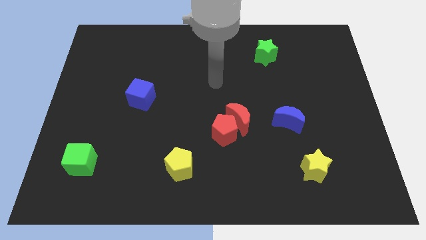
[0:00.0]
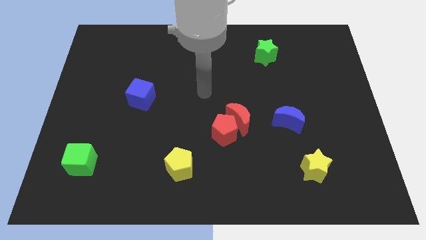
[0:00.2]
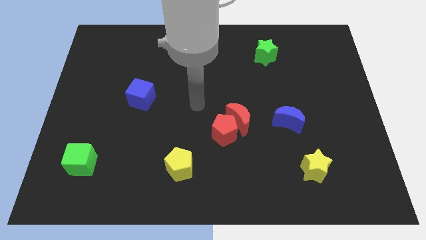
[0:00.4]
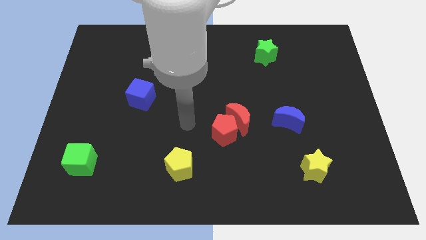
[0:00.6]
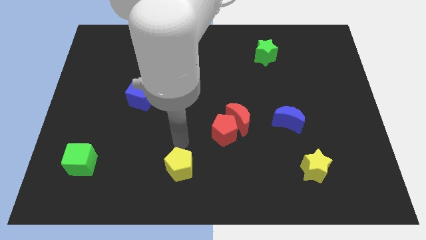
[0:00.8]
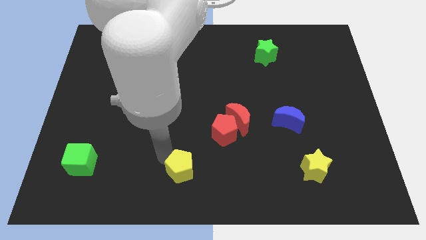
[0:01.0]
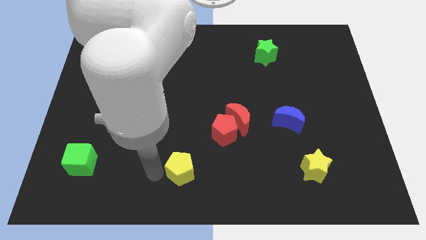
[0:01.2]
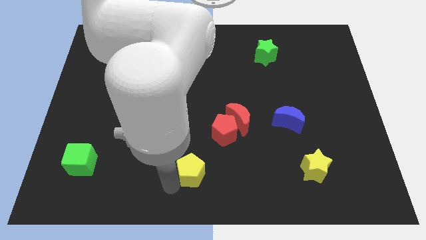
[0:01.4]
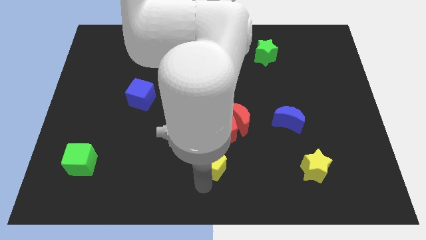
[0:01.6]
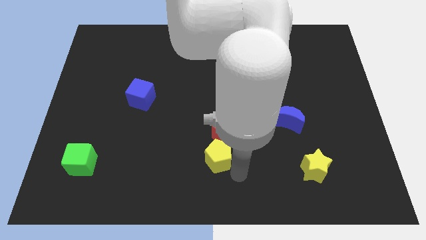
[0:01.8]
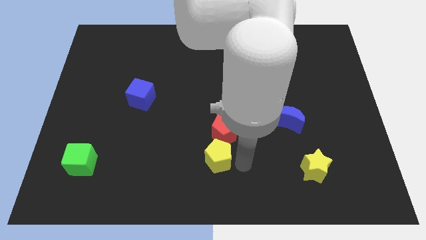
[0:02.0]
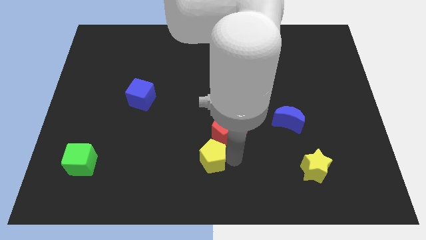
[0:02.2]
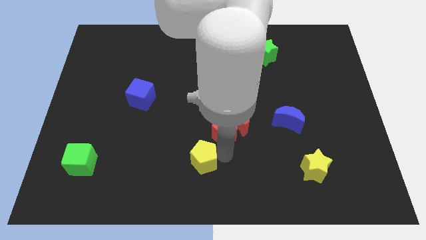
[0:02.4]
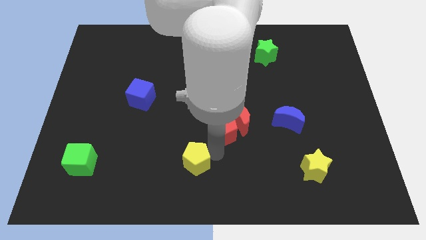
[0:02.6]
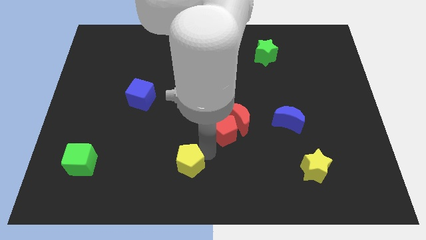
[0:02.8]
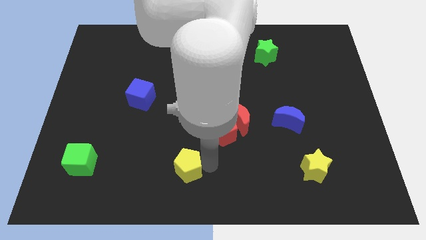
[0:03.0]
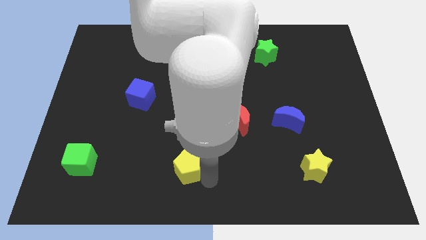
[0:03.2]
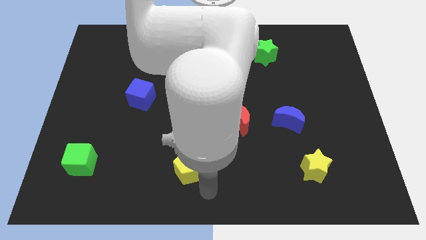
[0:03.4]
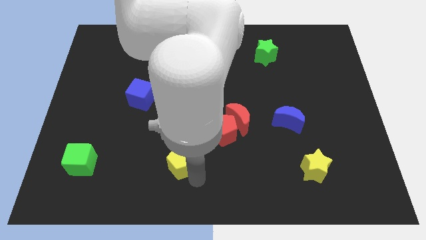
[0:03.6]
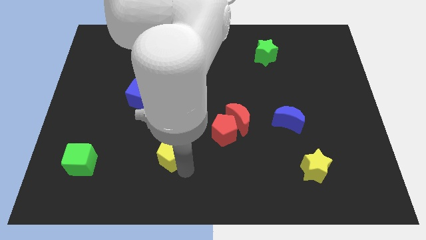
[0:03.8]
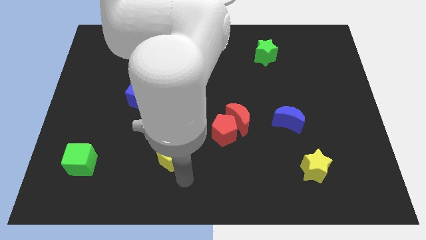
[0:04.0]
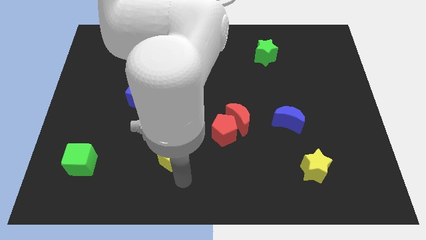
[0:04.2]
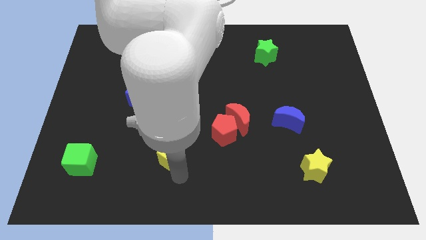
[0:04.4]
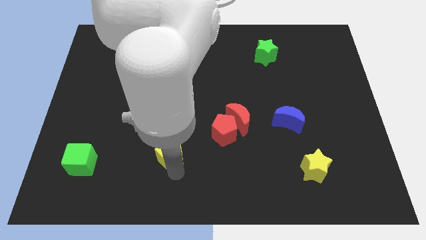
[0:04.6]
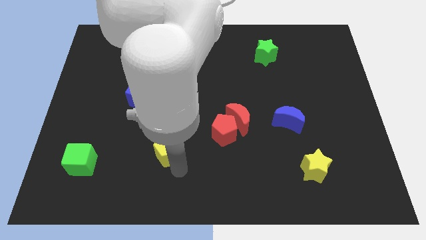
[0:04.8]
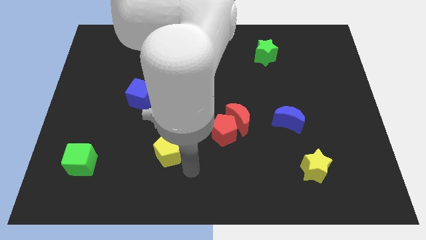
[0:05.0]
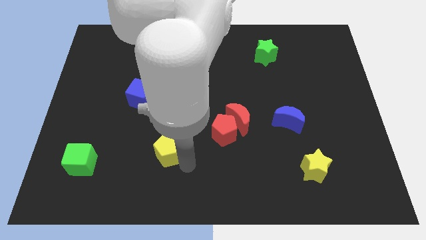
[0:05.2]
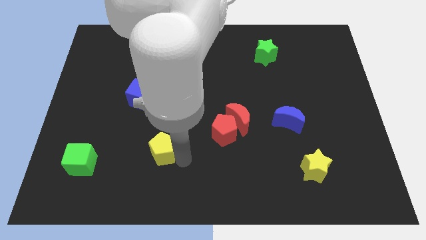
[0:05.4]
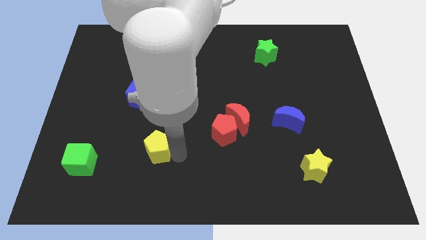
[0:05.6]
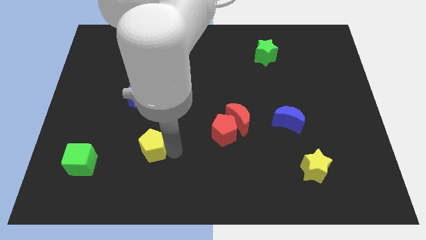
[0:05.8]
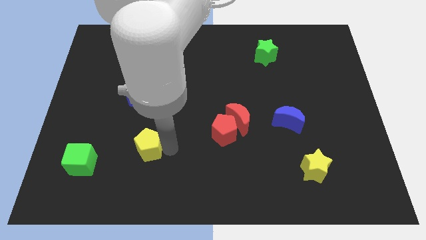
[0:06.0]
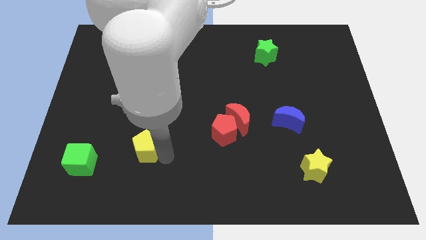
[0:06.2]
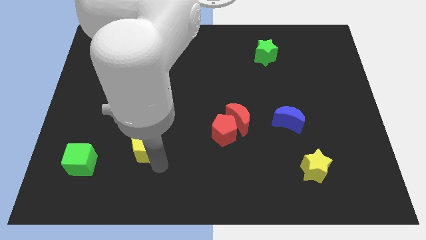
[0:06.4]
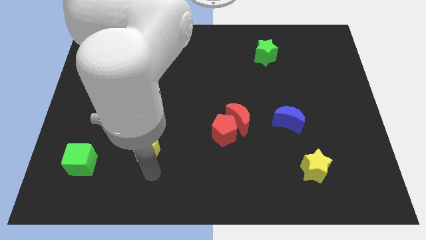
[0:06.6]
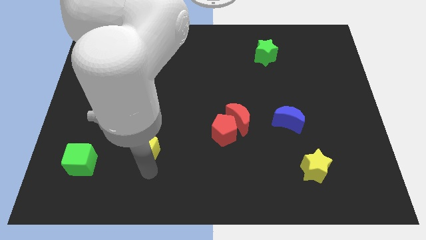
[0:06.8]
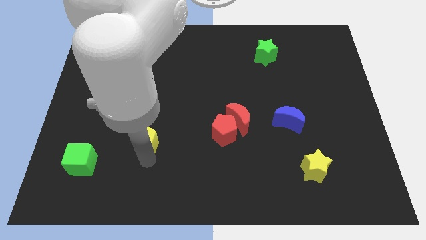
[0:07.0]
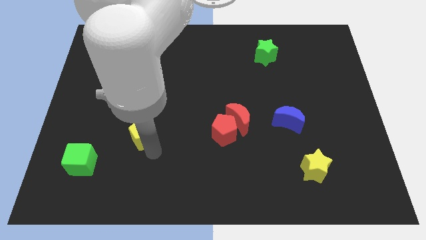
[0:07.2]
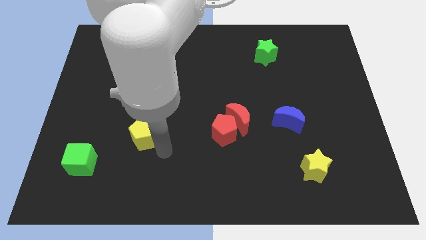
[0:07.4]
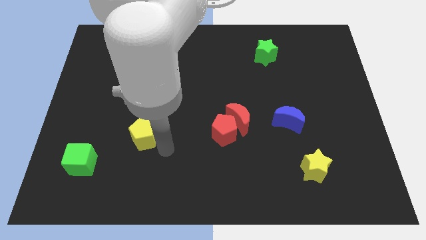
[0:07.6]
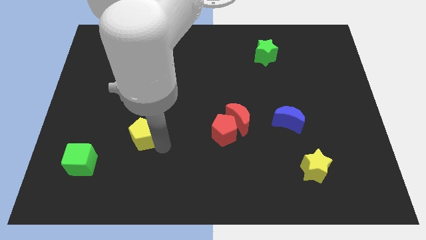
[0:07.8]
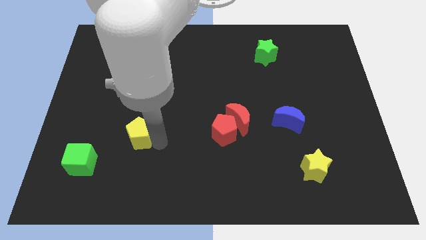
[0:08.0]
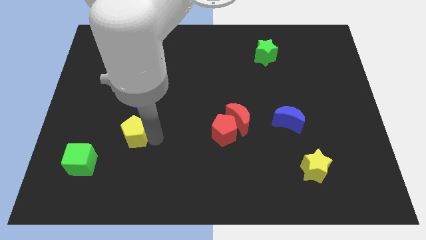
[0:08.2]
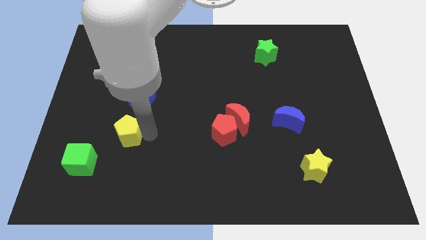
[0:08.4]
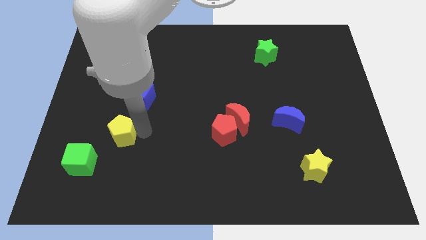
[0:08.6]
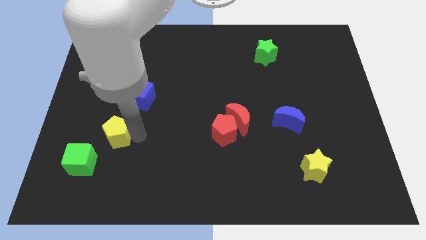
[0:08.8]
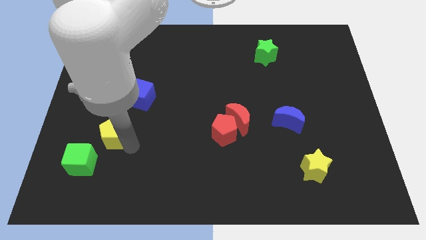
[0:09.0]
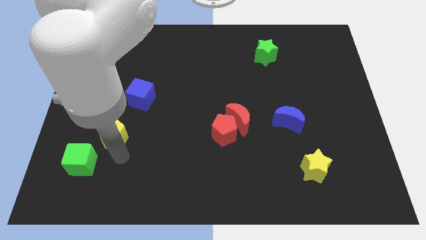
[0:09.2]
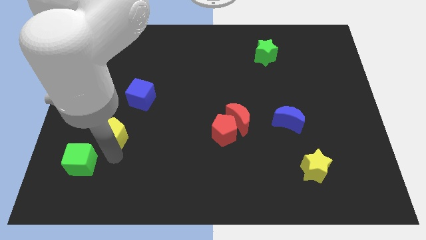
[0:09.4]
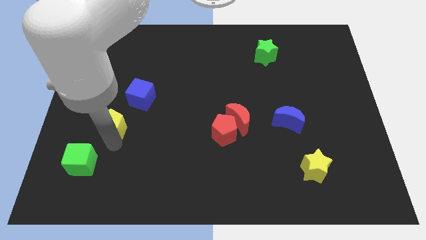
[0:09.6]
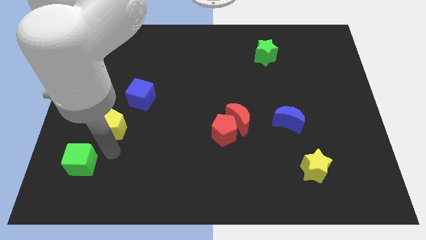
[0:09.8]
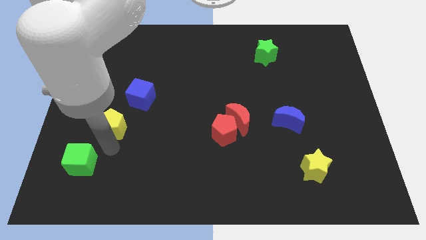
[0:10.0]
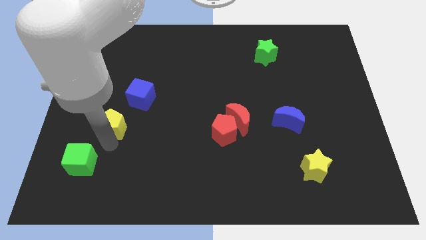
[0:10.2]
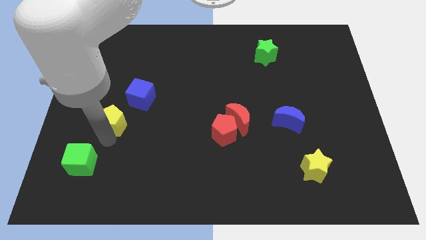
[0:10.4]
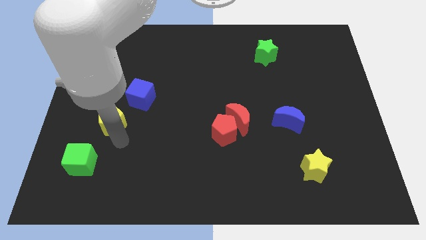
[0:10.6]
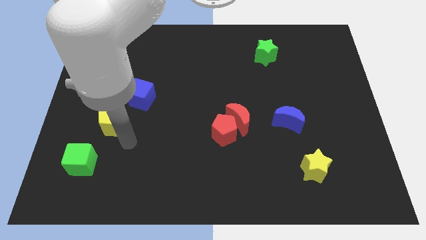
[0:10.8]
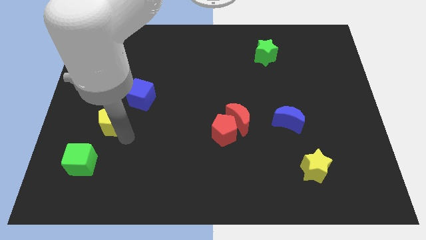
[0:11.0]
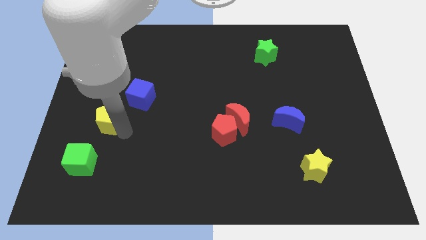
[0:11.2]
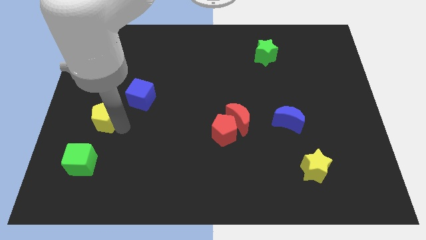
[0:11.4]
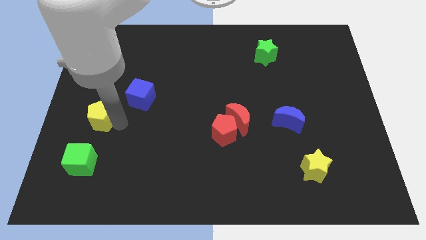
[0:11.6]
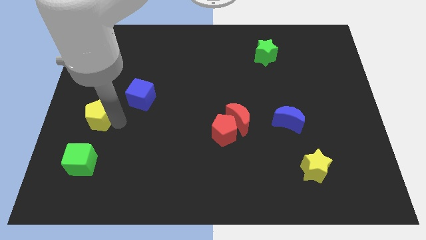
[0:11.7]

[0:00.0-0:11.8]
move the yellow pentagon to the center left

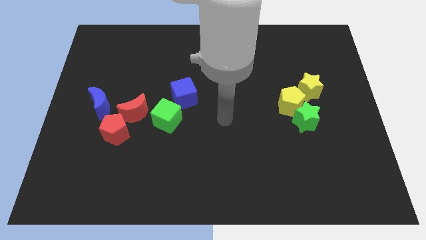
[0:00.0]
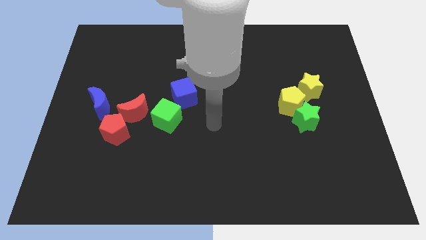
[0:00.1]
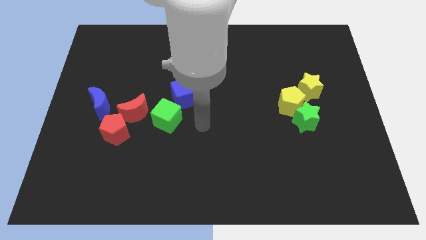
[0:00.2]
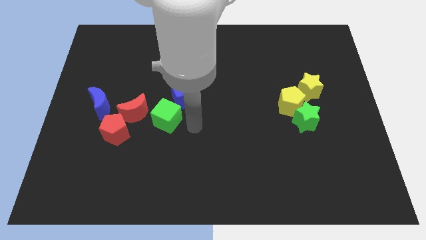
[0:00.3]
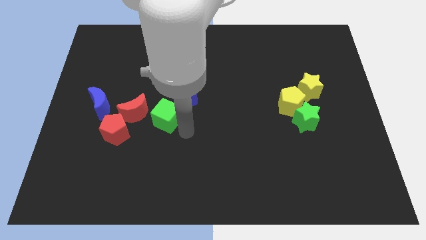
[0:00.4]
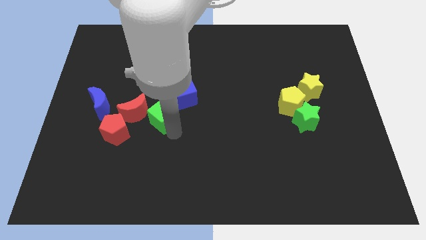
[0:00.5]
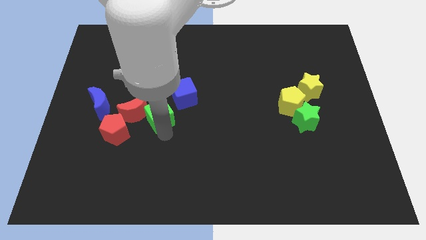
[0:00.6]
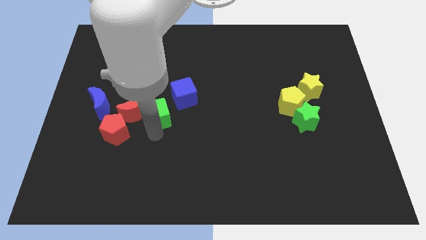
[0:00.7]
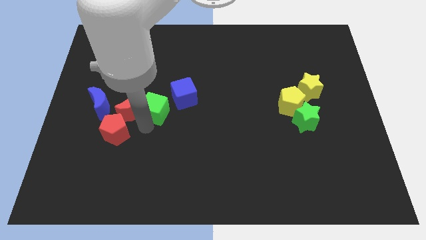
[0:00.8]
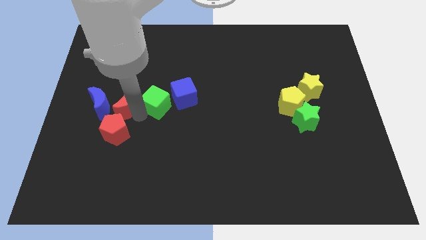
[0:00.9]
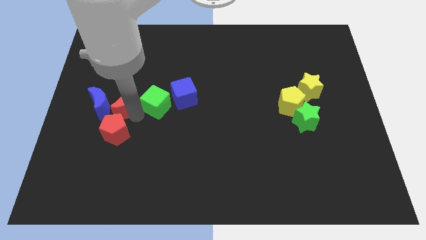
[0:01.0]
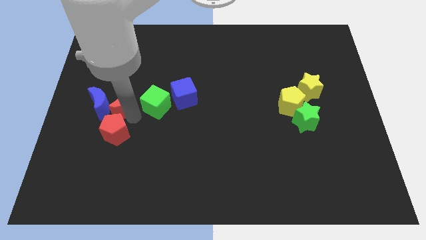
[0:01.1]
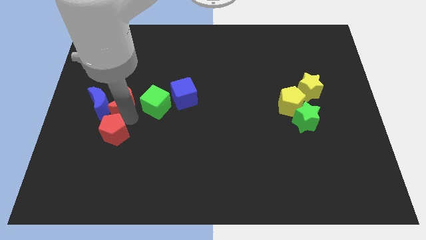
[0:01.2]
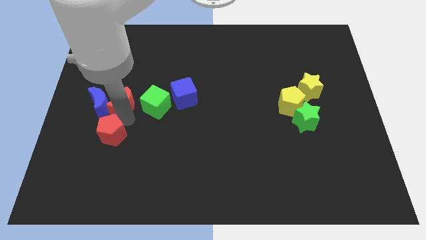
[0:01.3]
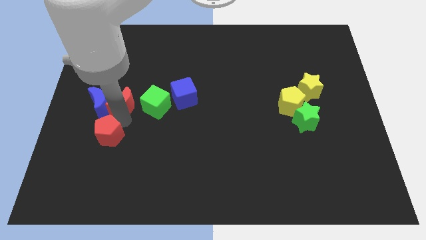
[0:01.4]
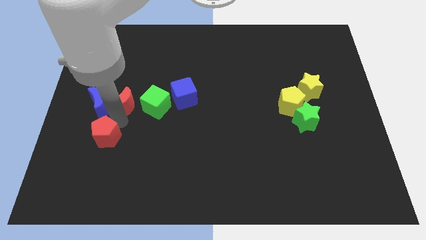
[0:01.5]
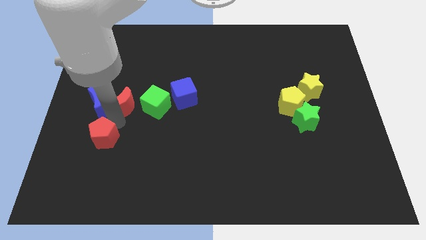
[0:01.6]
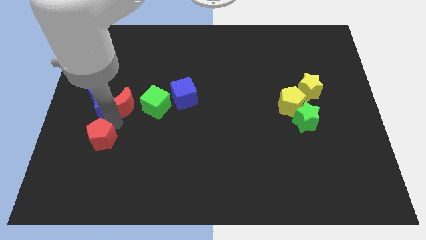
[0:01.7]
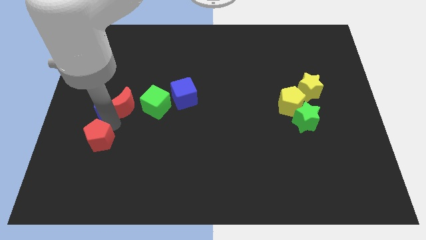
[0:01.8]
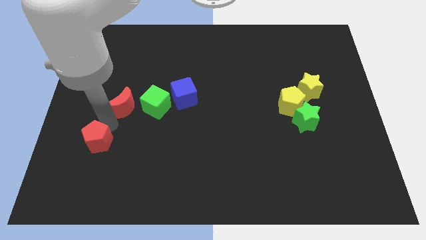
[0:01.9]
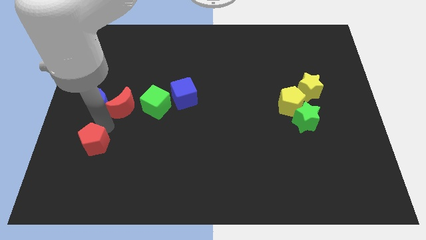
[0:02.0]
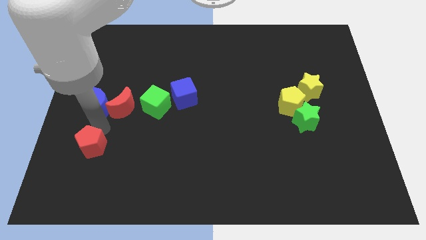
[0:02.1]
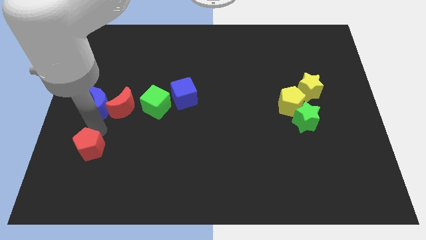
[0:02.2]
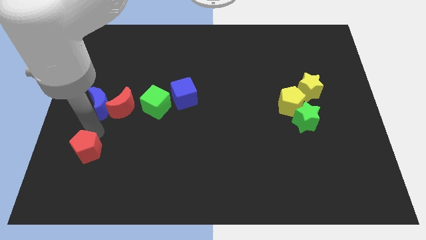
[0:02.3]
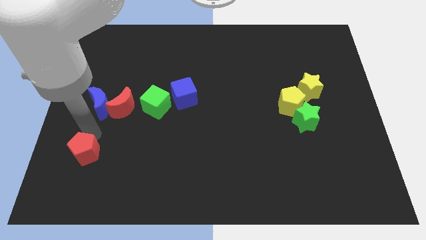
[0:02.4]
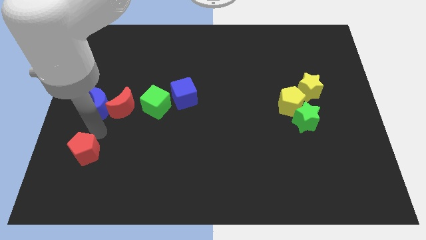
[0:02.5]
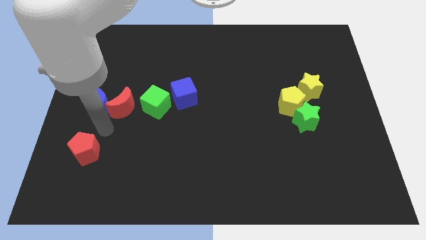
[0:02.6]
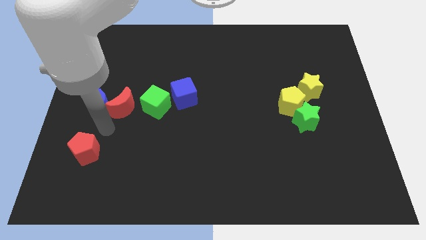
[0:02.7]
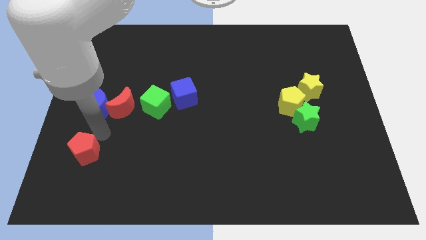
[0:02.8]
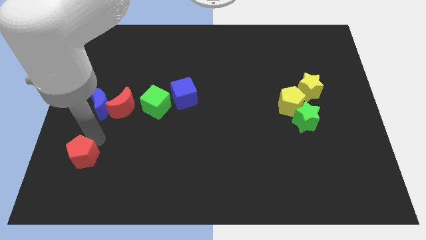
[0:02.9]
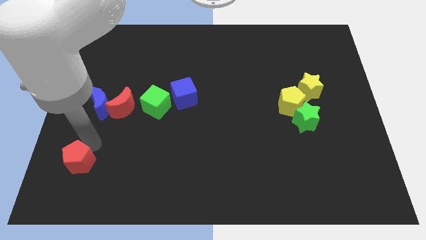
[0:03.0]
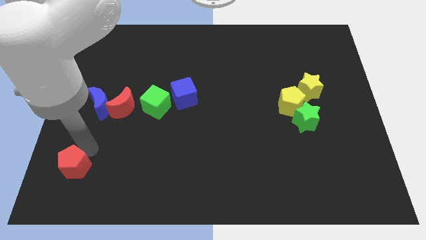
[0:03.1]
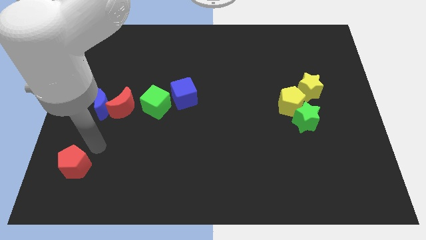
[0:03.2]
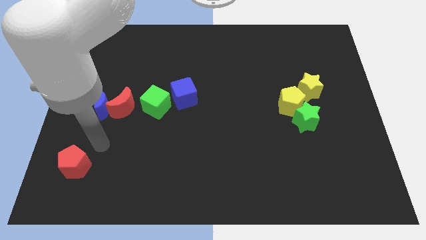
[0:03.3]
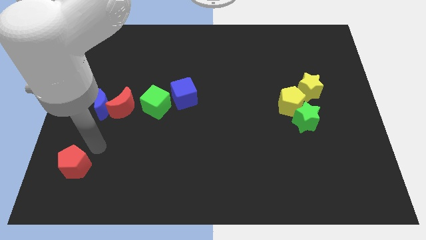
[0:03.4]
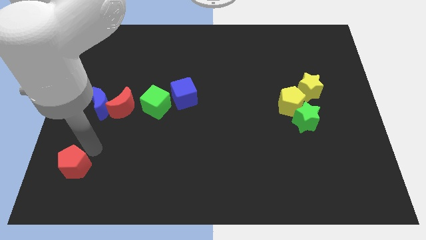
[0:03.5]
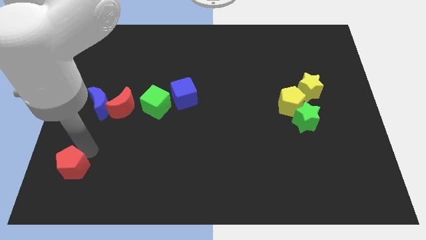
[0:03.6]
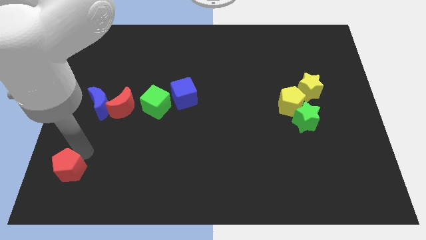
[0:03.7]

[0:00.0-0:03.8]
put the red pentagon to the bottom left
